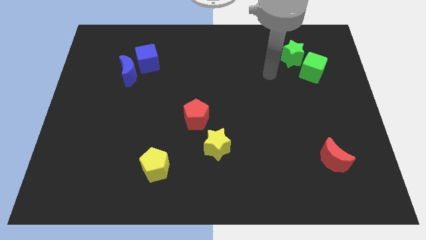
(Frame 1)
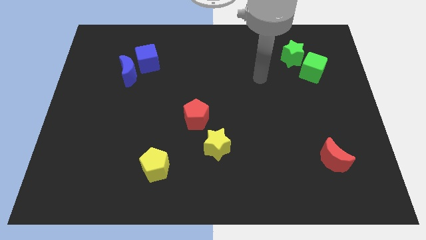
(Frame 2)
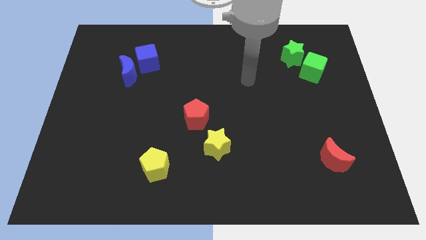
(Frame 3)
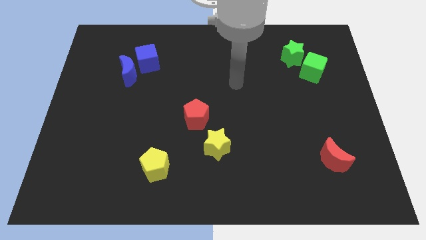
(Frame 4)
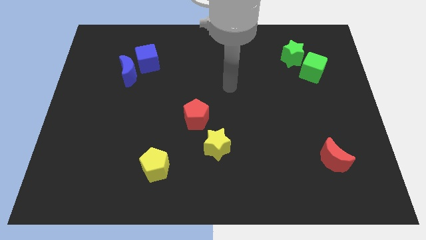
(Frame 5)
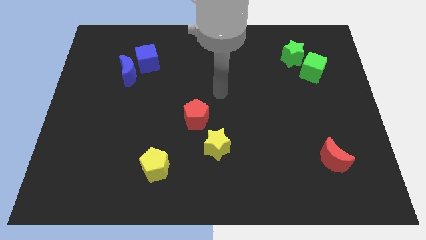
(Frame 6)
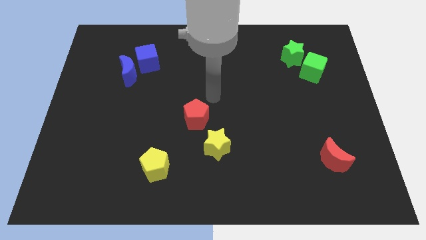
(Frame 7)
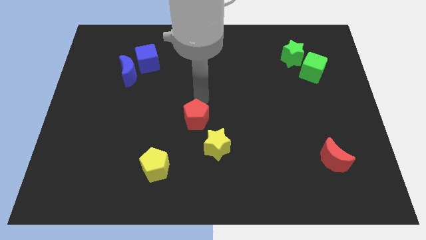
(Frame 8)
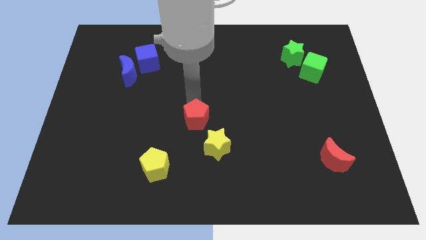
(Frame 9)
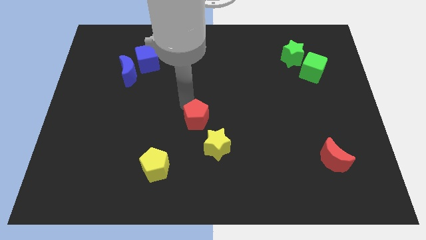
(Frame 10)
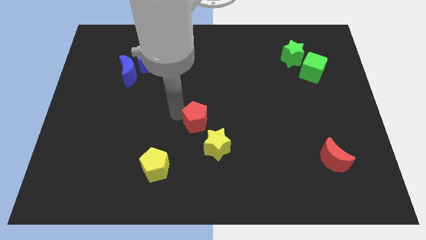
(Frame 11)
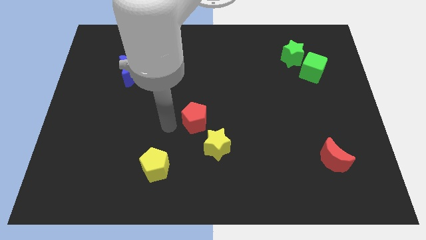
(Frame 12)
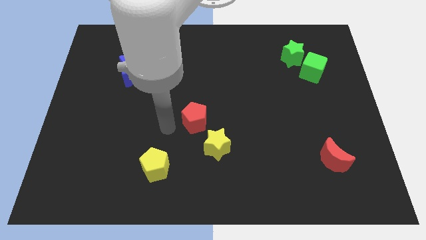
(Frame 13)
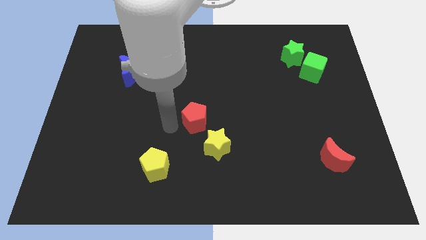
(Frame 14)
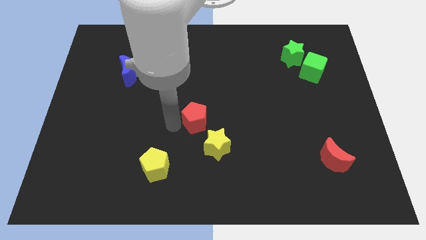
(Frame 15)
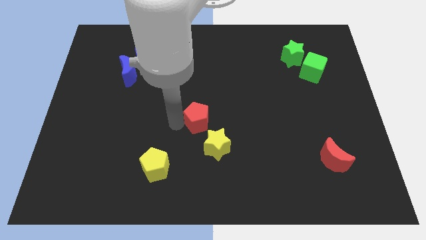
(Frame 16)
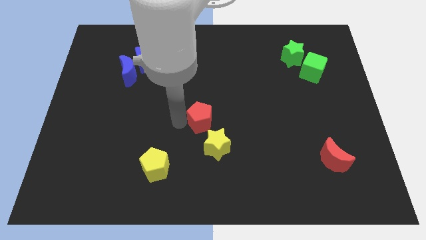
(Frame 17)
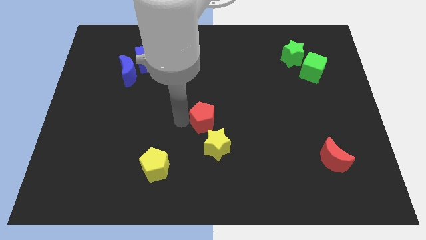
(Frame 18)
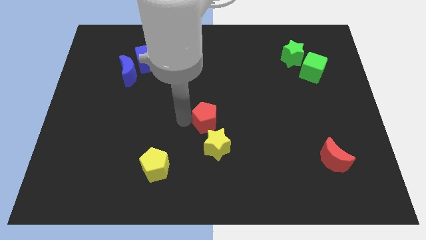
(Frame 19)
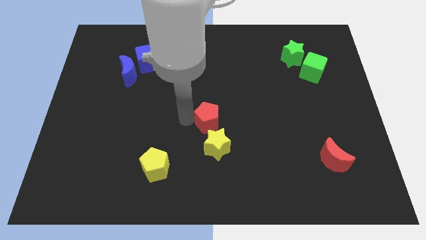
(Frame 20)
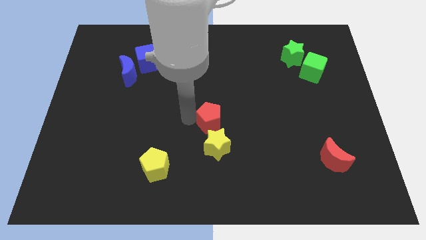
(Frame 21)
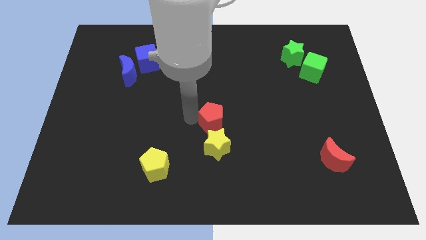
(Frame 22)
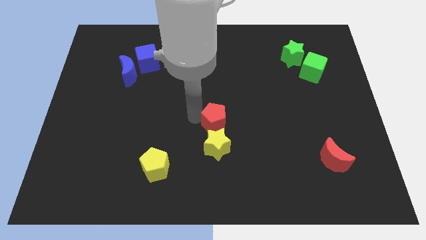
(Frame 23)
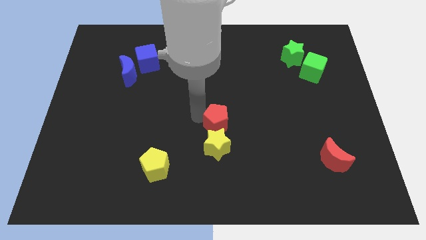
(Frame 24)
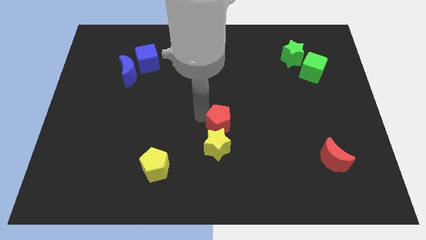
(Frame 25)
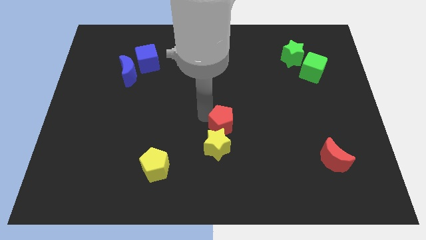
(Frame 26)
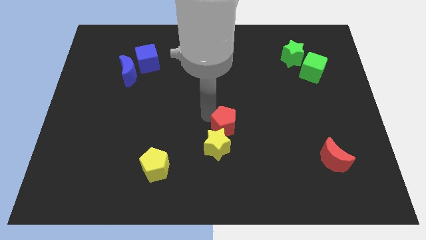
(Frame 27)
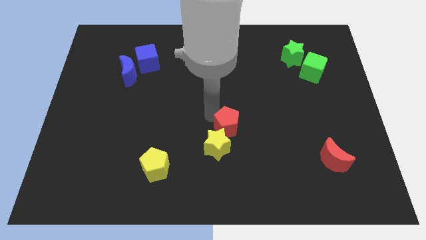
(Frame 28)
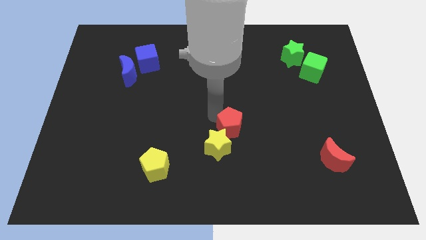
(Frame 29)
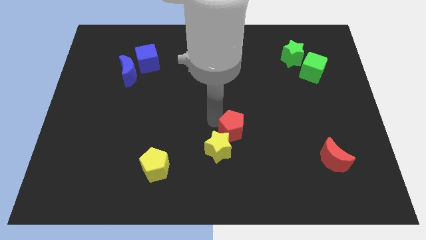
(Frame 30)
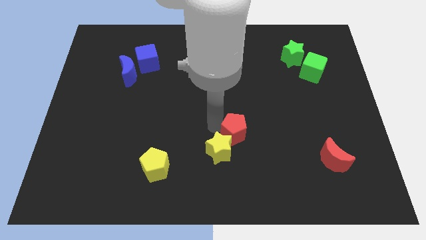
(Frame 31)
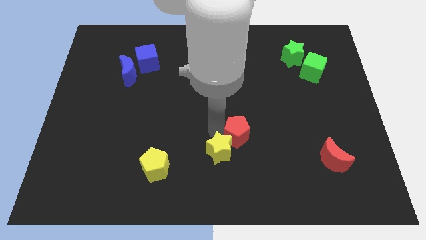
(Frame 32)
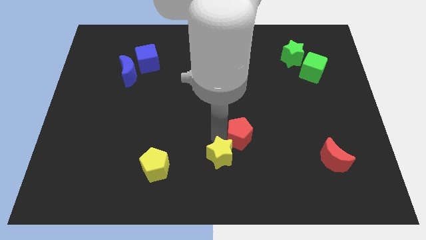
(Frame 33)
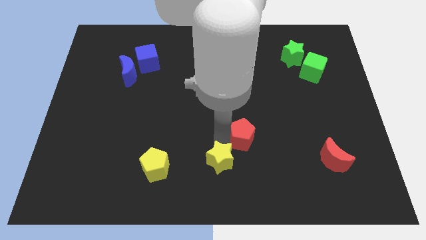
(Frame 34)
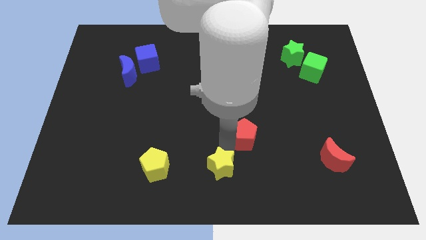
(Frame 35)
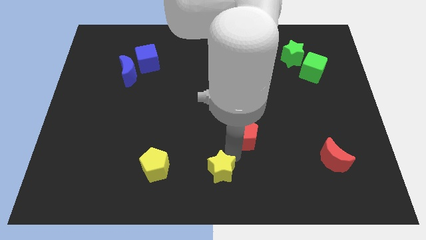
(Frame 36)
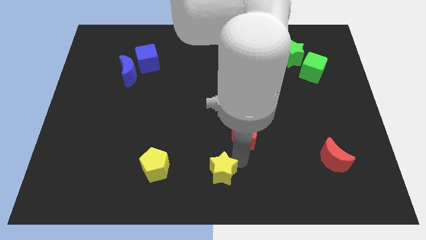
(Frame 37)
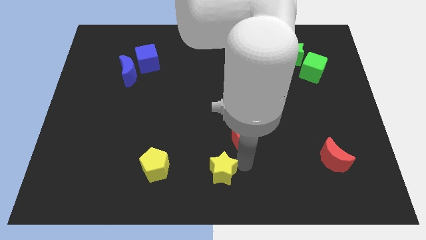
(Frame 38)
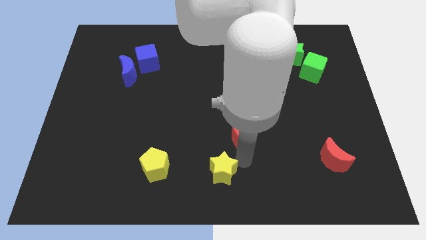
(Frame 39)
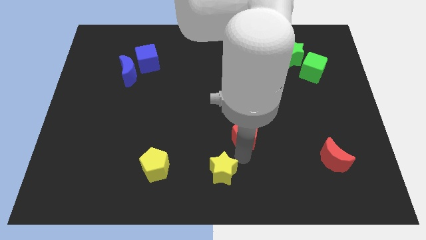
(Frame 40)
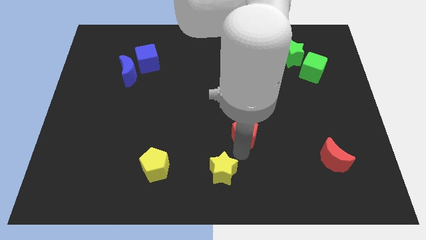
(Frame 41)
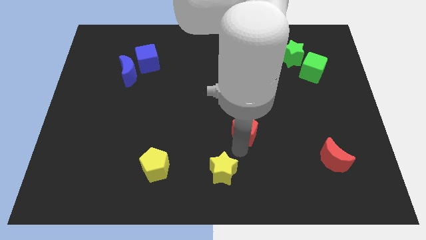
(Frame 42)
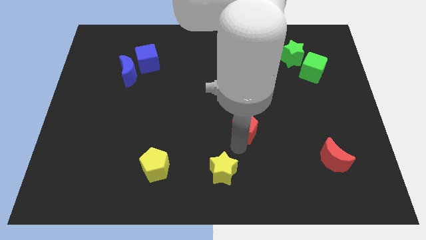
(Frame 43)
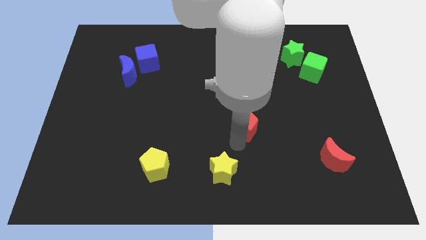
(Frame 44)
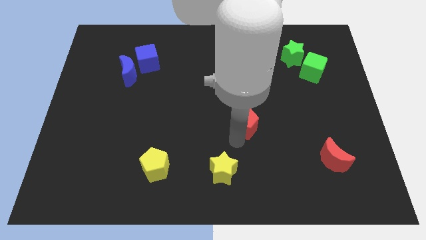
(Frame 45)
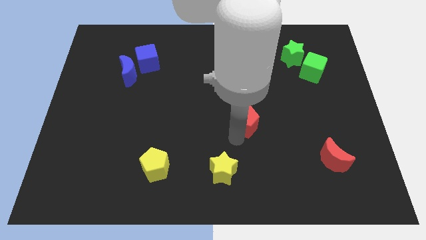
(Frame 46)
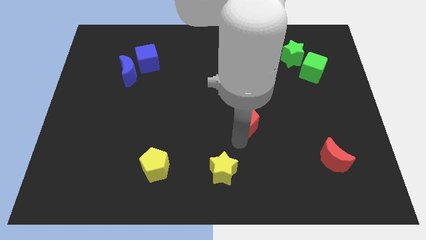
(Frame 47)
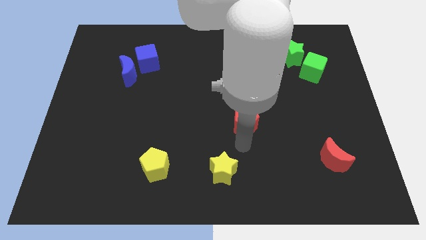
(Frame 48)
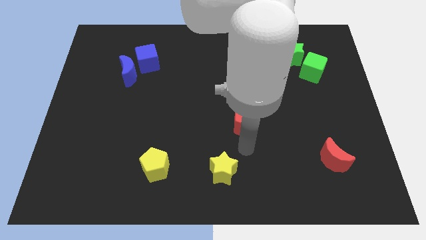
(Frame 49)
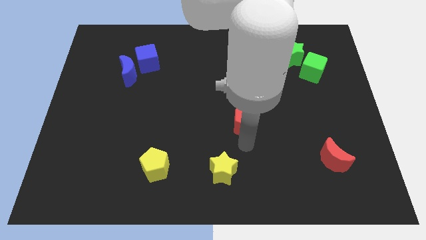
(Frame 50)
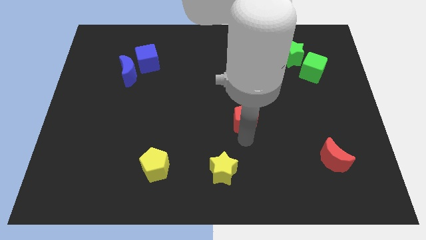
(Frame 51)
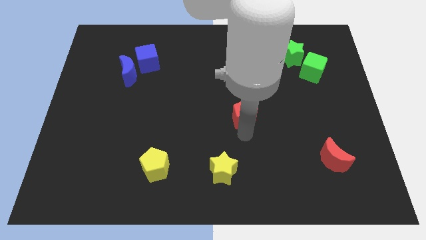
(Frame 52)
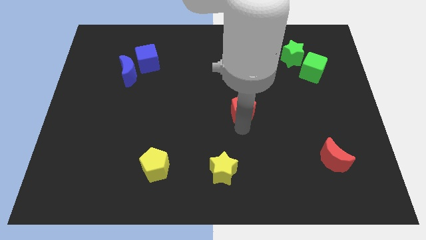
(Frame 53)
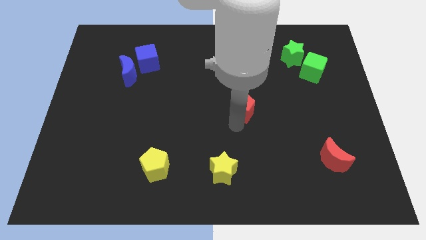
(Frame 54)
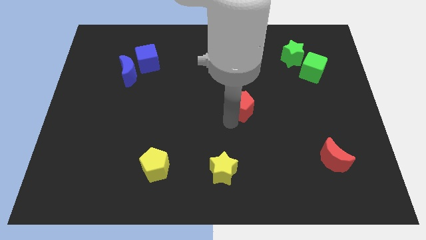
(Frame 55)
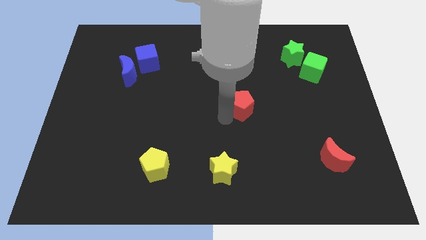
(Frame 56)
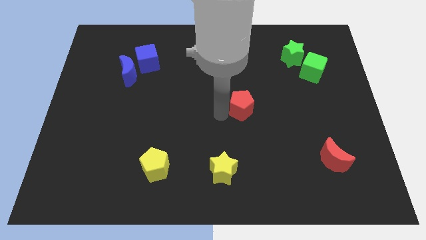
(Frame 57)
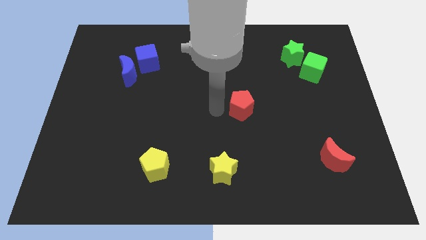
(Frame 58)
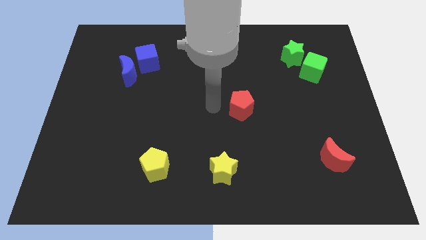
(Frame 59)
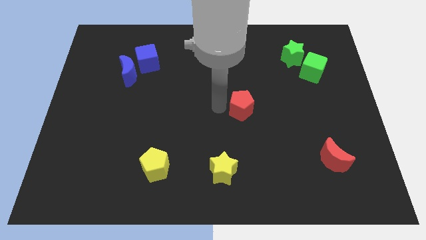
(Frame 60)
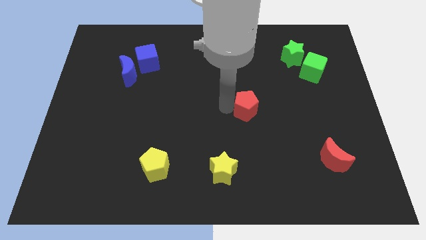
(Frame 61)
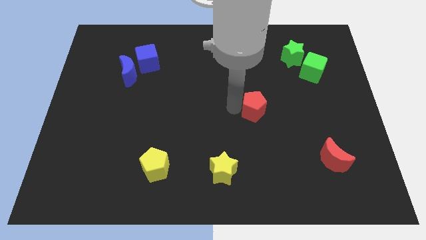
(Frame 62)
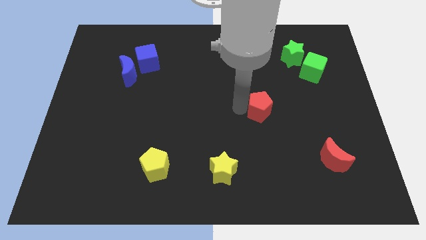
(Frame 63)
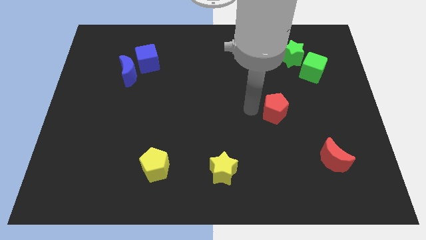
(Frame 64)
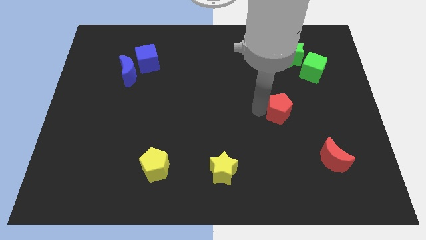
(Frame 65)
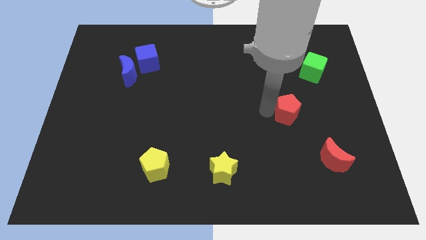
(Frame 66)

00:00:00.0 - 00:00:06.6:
push the red pentagon to the right

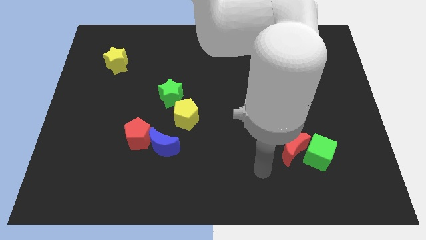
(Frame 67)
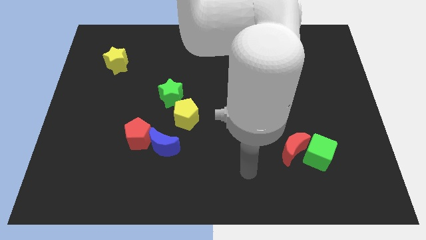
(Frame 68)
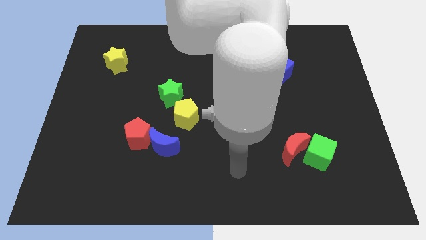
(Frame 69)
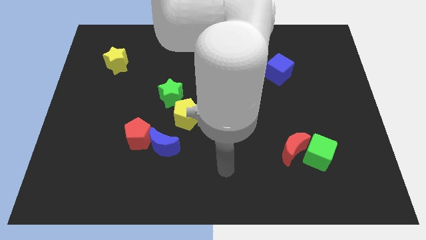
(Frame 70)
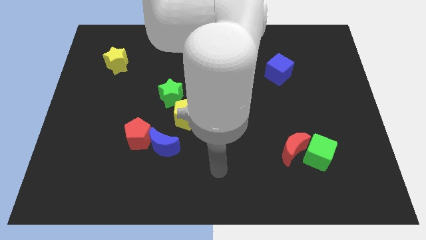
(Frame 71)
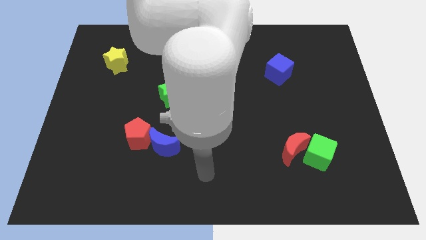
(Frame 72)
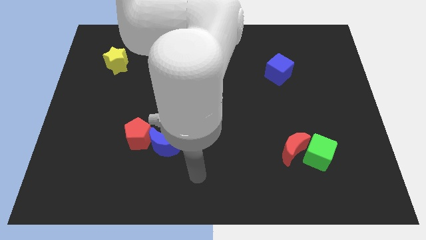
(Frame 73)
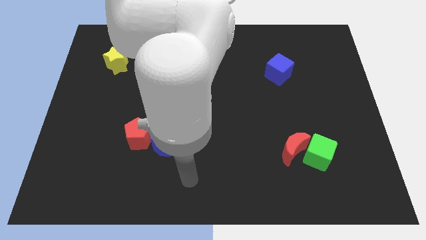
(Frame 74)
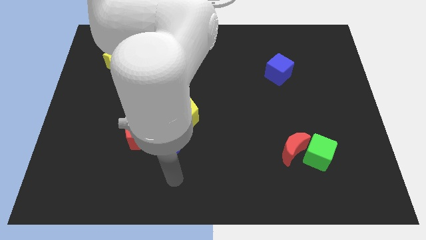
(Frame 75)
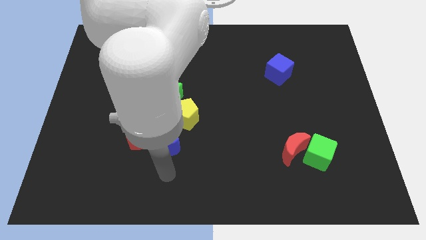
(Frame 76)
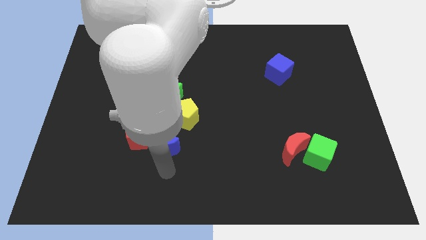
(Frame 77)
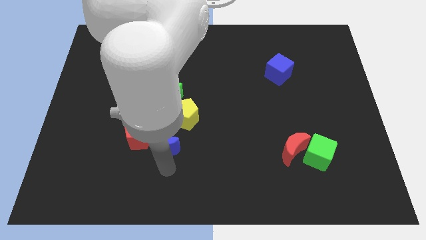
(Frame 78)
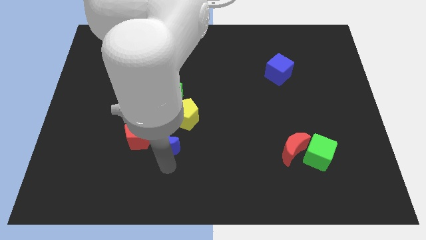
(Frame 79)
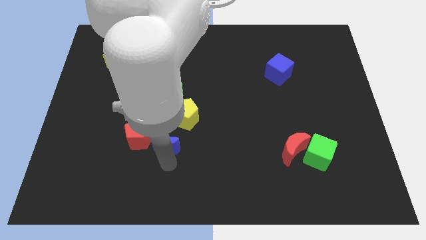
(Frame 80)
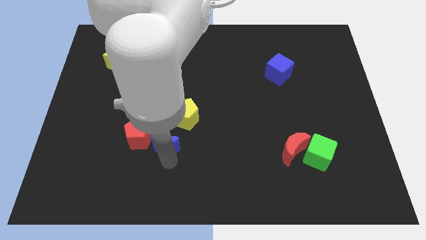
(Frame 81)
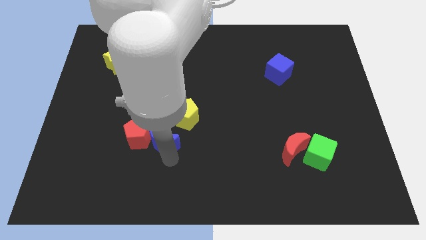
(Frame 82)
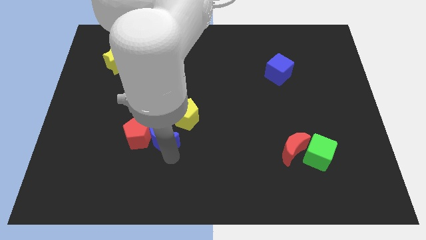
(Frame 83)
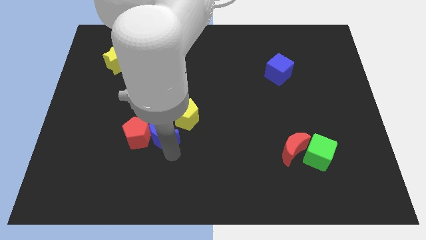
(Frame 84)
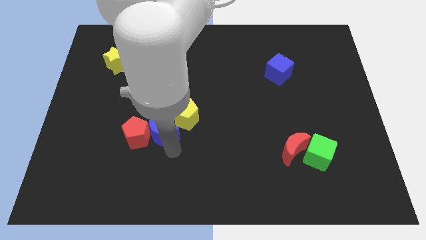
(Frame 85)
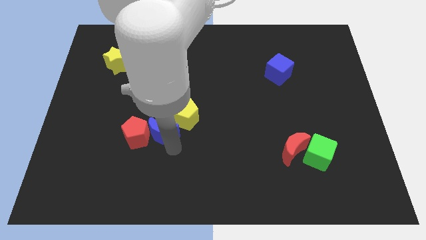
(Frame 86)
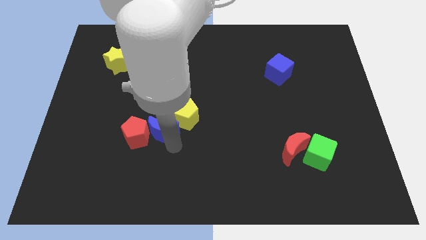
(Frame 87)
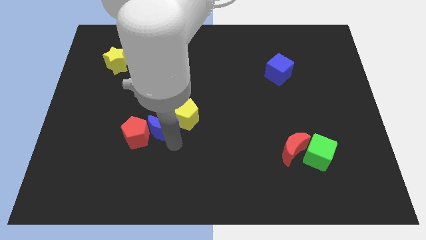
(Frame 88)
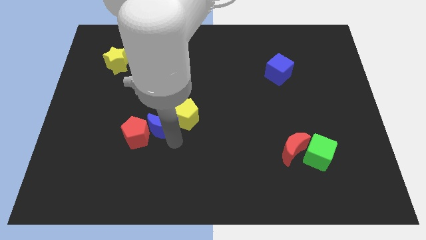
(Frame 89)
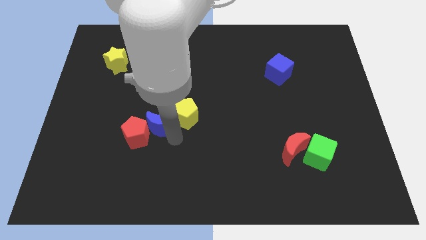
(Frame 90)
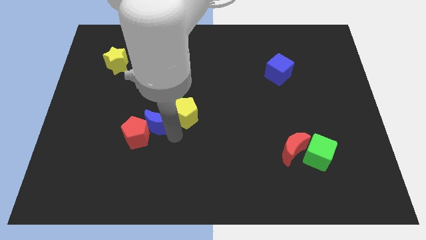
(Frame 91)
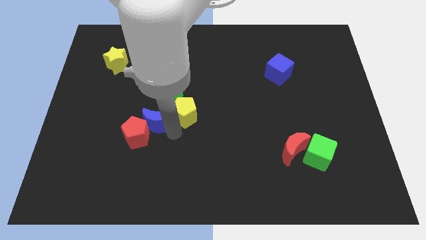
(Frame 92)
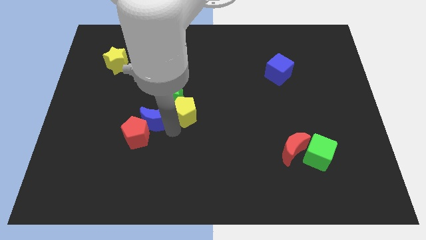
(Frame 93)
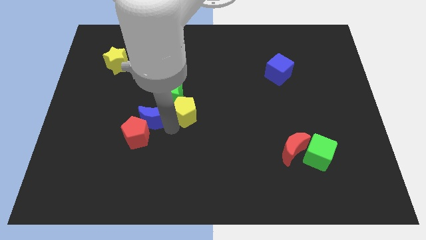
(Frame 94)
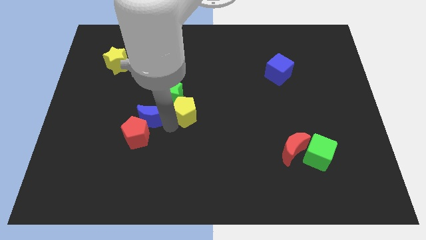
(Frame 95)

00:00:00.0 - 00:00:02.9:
slide the blue moon slightly diagonally up and to the left
